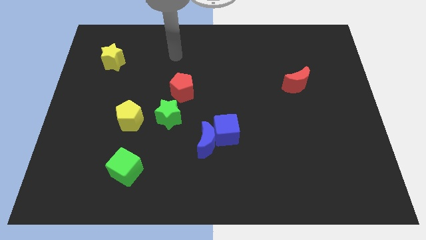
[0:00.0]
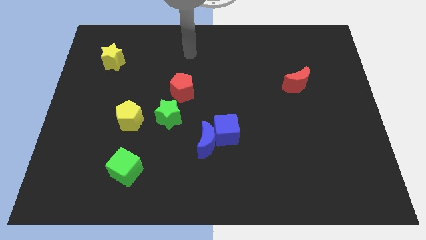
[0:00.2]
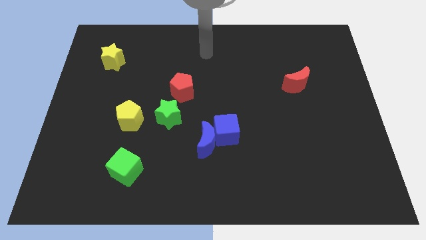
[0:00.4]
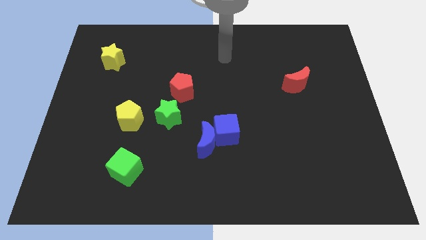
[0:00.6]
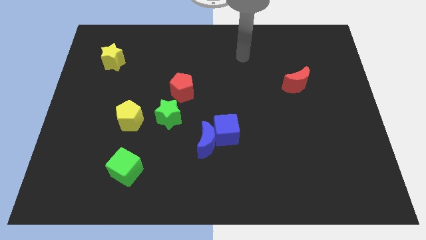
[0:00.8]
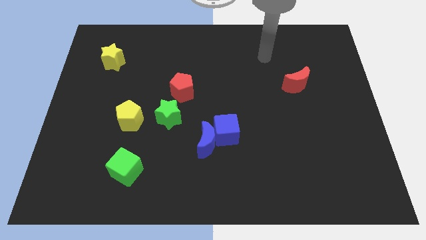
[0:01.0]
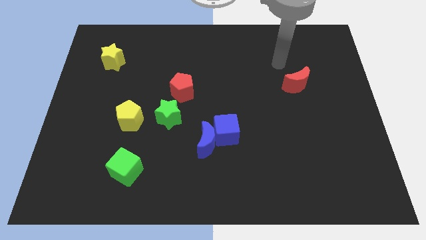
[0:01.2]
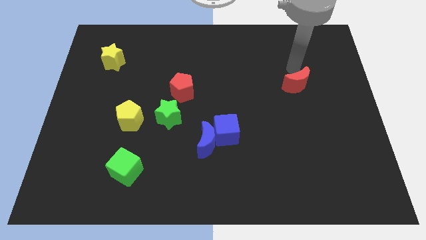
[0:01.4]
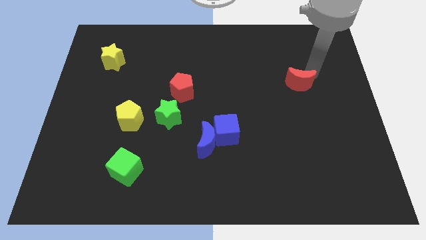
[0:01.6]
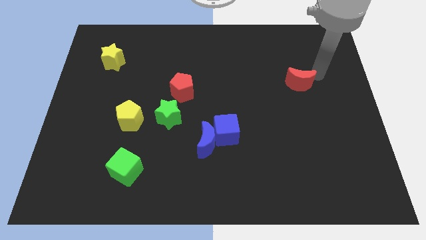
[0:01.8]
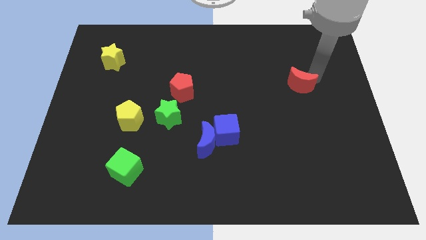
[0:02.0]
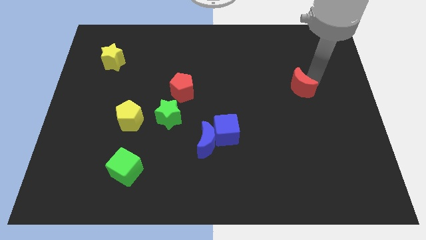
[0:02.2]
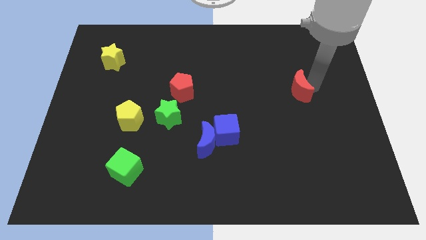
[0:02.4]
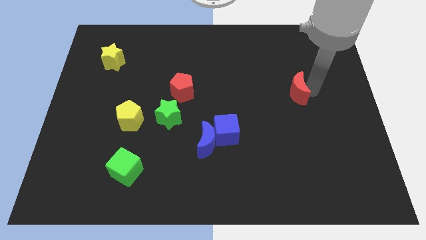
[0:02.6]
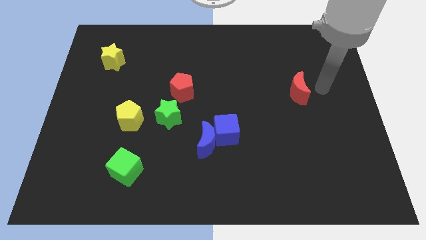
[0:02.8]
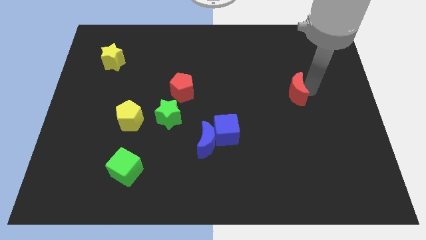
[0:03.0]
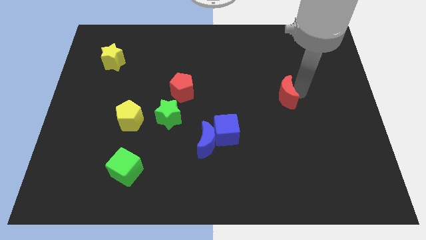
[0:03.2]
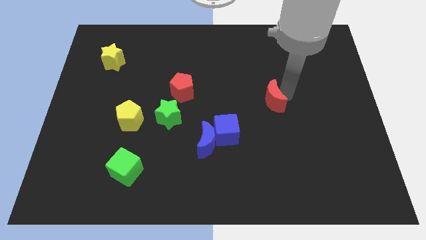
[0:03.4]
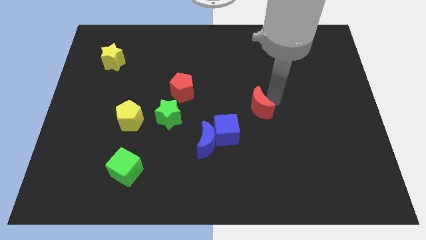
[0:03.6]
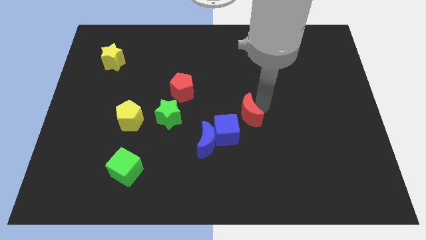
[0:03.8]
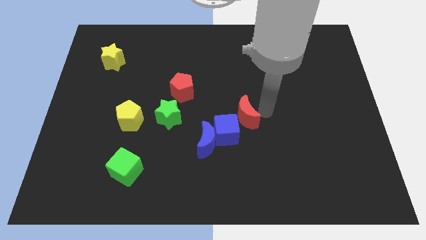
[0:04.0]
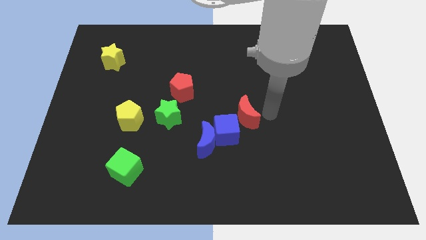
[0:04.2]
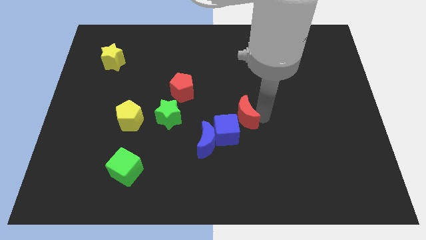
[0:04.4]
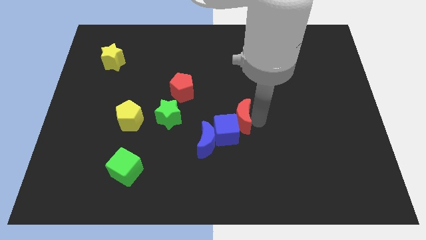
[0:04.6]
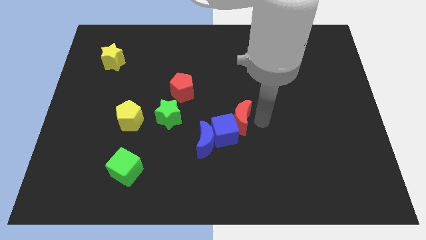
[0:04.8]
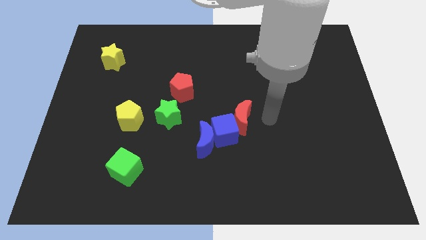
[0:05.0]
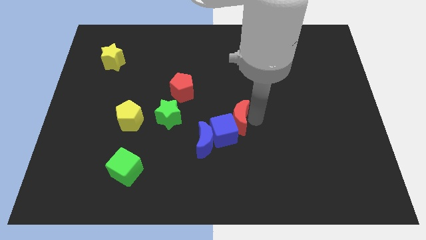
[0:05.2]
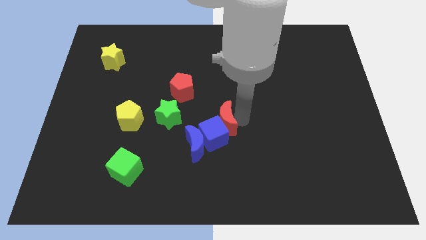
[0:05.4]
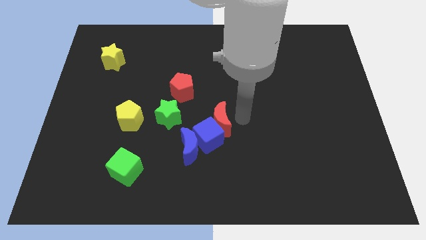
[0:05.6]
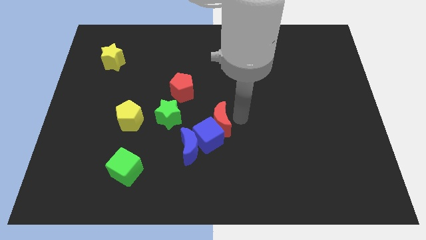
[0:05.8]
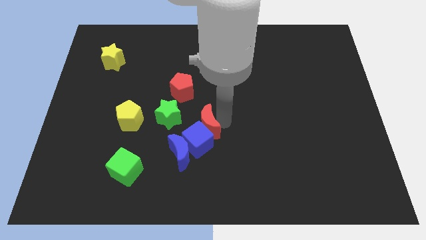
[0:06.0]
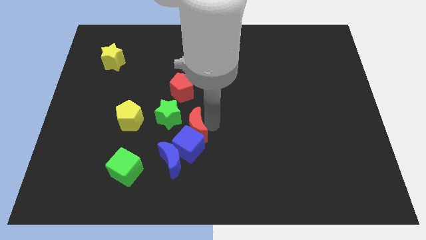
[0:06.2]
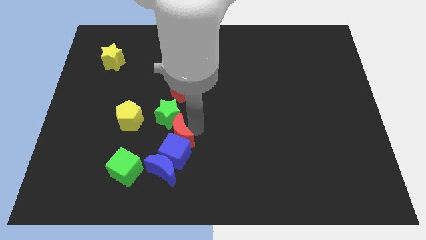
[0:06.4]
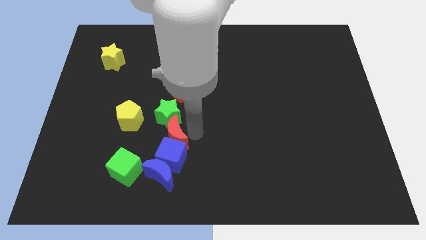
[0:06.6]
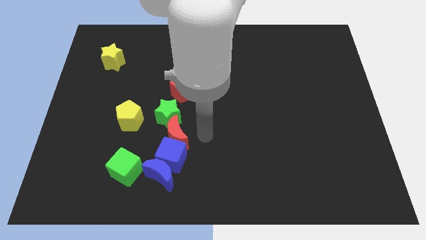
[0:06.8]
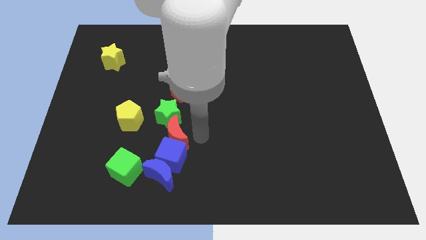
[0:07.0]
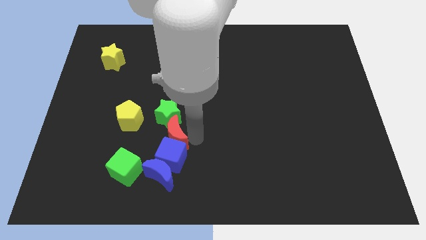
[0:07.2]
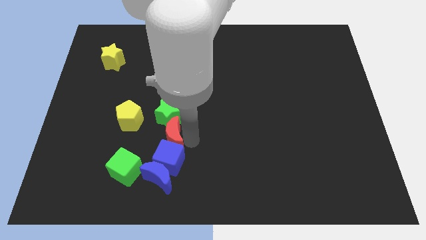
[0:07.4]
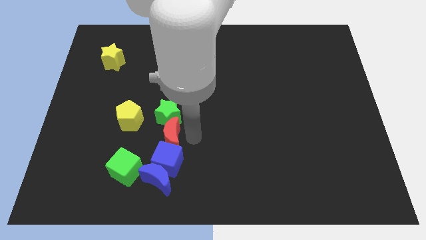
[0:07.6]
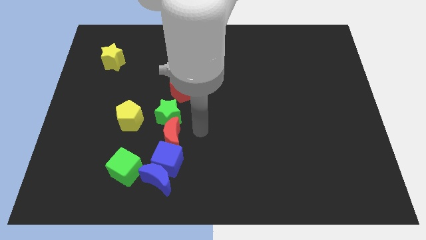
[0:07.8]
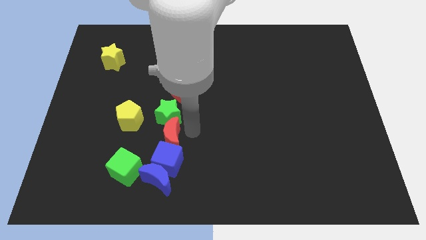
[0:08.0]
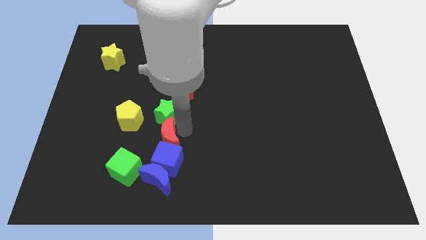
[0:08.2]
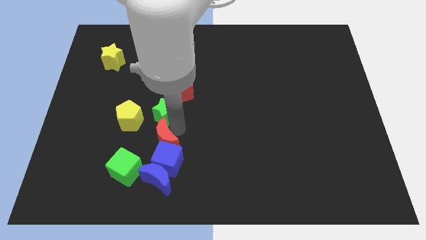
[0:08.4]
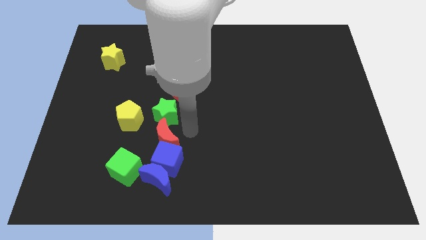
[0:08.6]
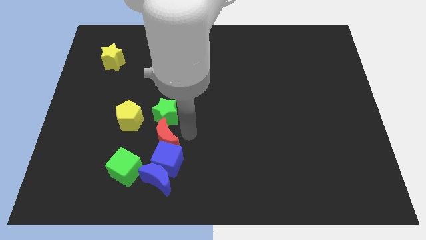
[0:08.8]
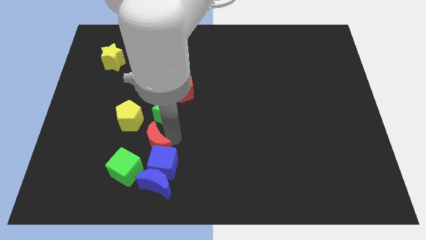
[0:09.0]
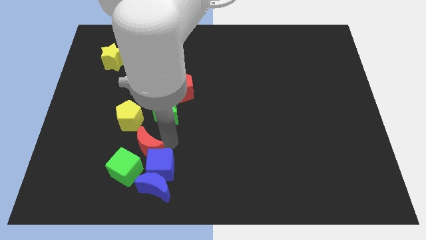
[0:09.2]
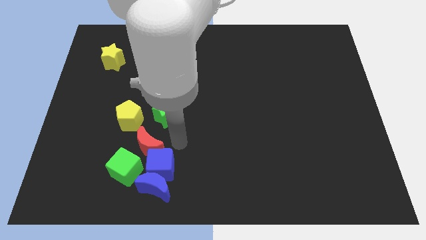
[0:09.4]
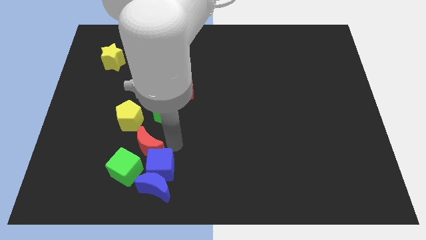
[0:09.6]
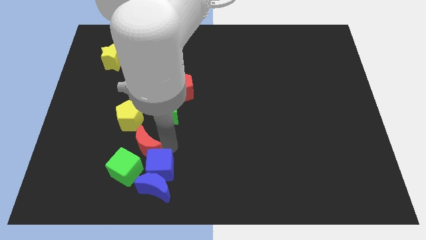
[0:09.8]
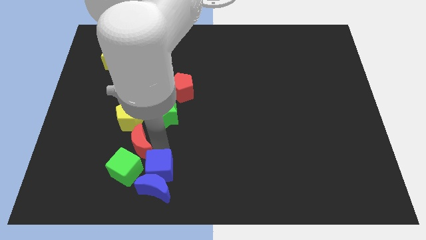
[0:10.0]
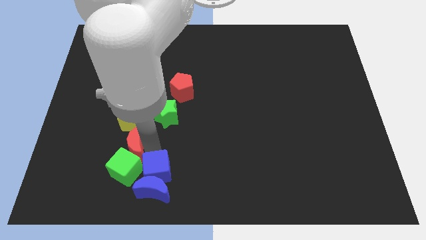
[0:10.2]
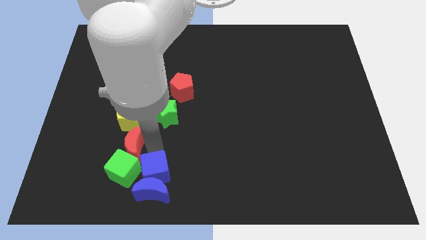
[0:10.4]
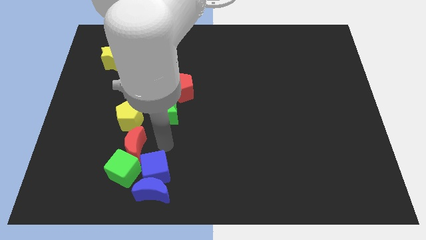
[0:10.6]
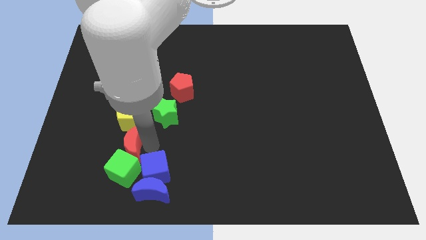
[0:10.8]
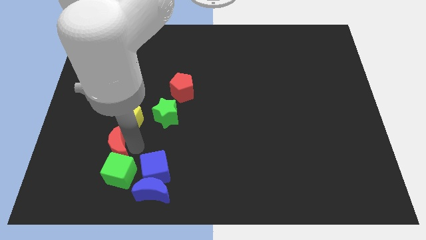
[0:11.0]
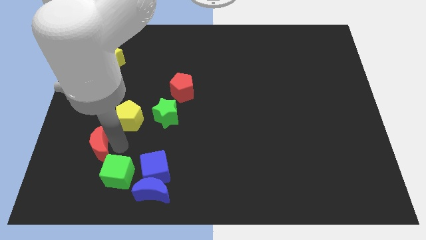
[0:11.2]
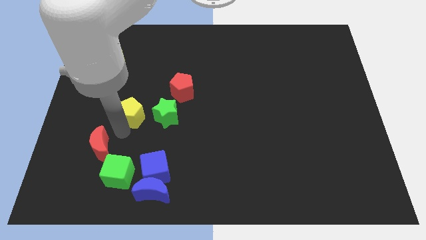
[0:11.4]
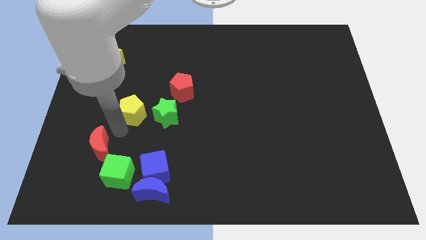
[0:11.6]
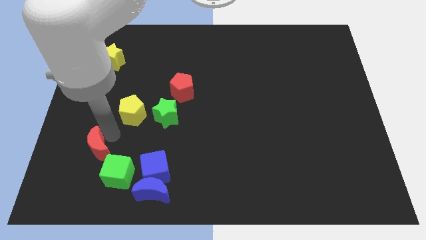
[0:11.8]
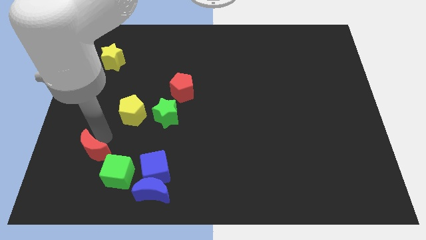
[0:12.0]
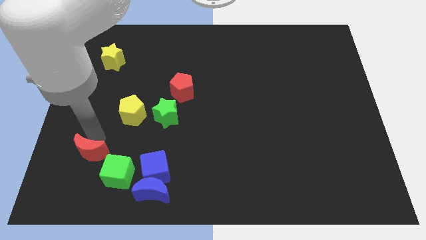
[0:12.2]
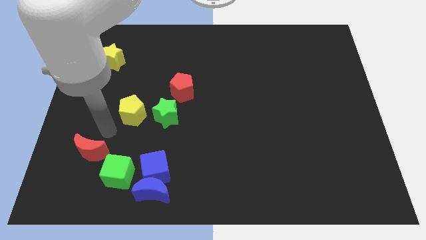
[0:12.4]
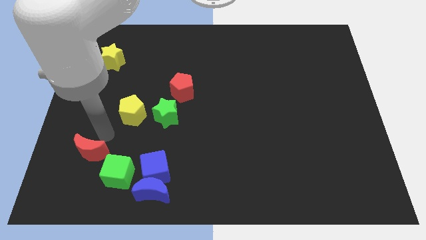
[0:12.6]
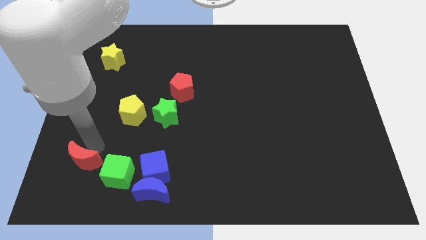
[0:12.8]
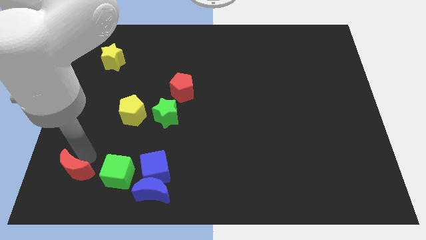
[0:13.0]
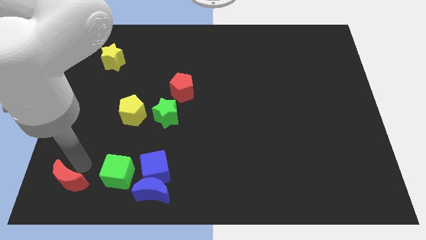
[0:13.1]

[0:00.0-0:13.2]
slide the red moon to the bottom left corner
